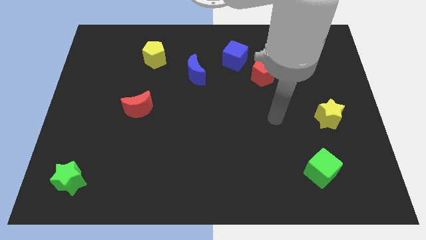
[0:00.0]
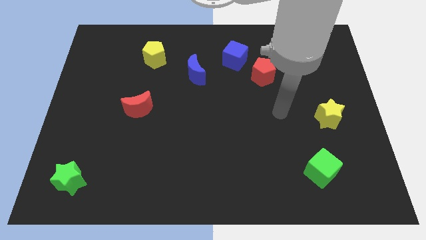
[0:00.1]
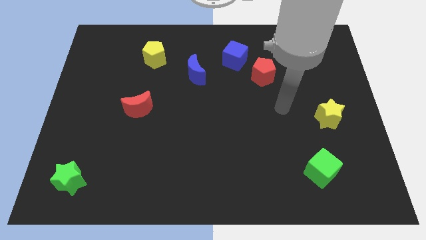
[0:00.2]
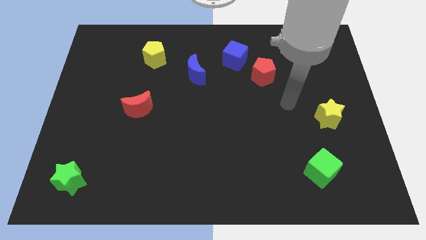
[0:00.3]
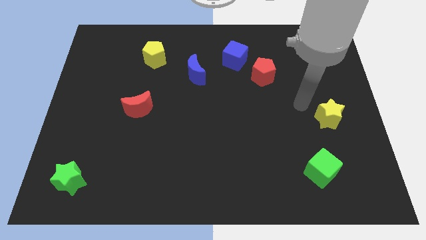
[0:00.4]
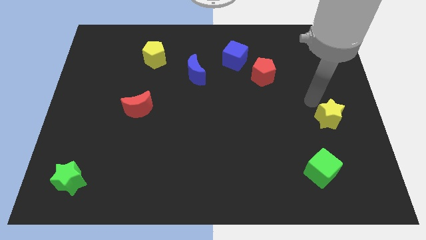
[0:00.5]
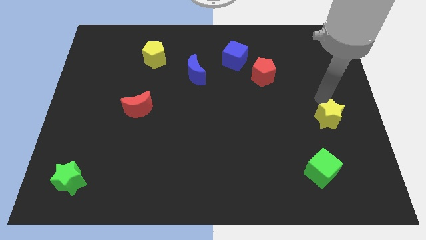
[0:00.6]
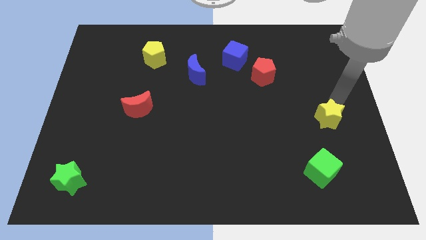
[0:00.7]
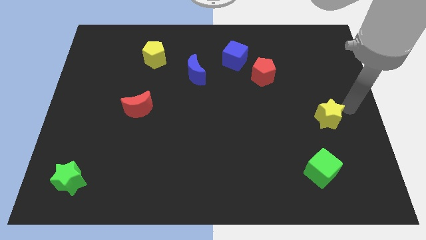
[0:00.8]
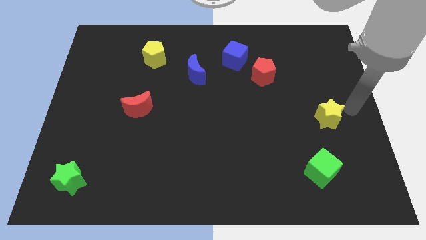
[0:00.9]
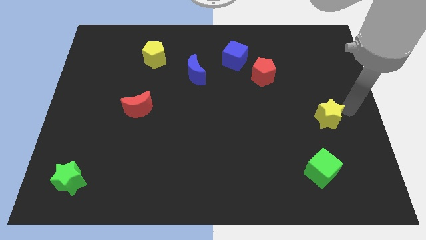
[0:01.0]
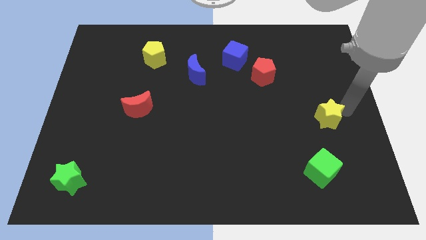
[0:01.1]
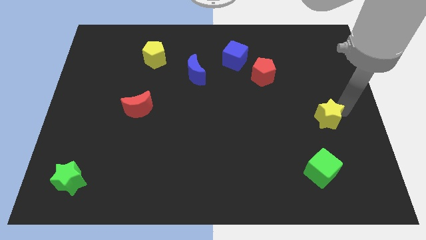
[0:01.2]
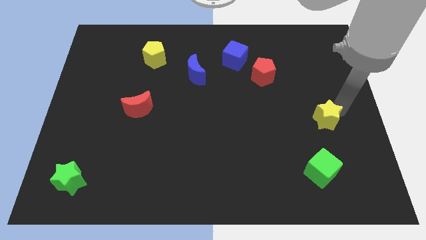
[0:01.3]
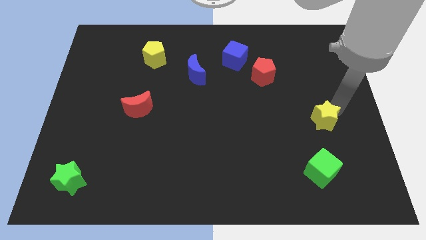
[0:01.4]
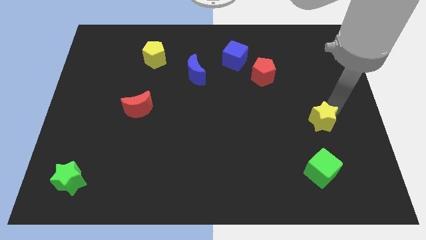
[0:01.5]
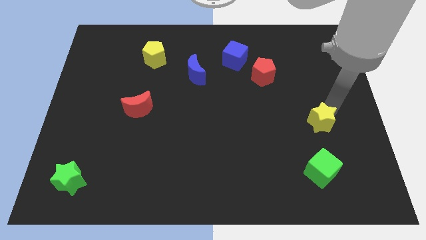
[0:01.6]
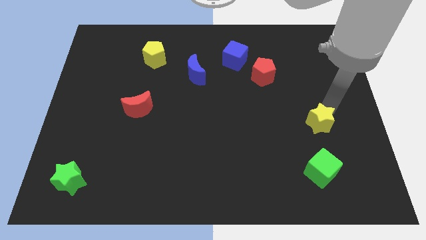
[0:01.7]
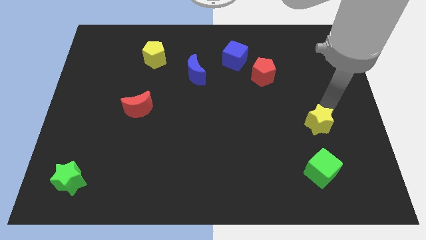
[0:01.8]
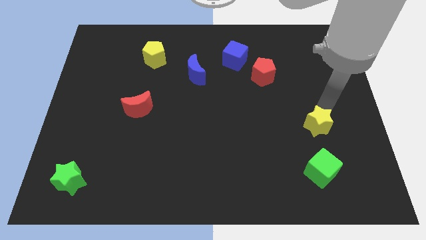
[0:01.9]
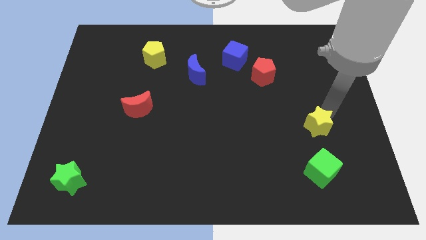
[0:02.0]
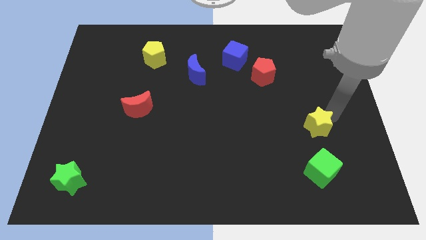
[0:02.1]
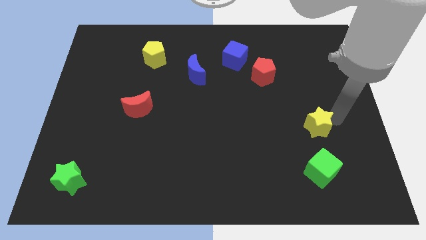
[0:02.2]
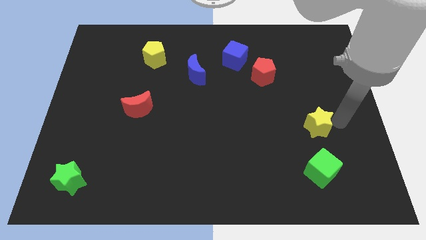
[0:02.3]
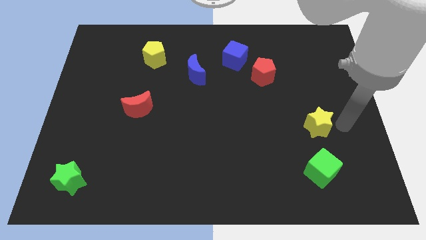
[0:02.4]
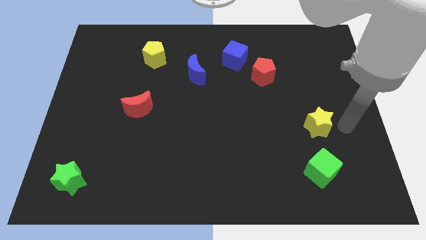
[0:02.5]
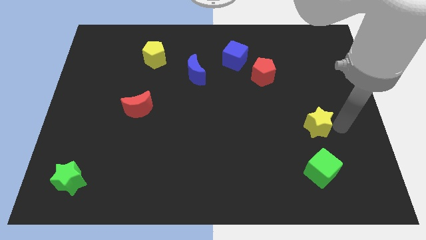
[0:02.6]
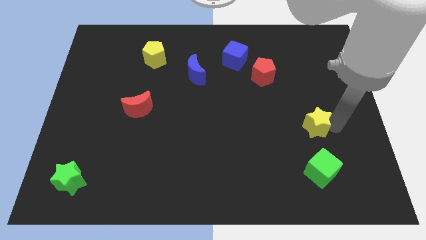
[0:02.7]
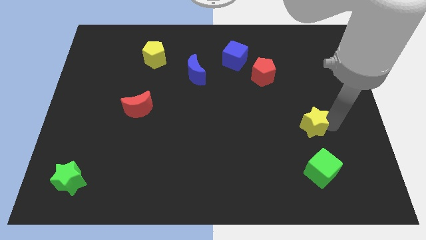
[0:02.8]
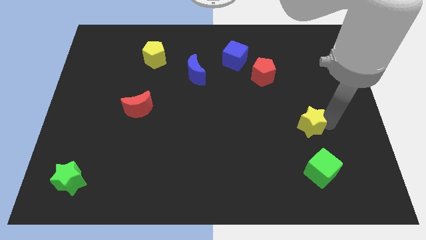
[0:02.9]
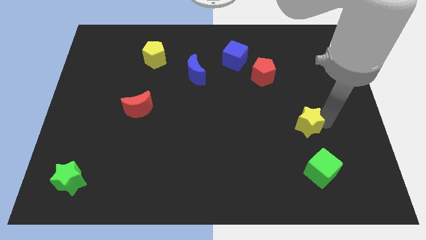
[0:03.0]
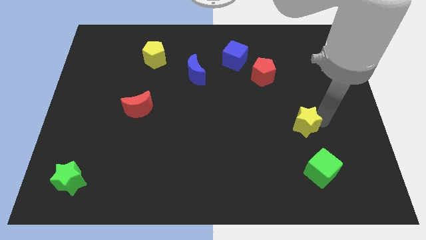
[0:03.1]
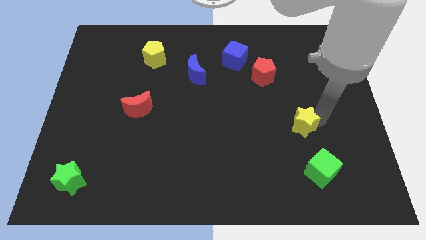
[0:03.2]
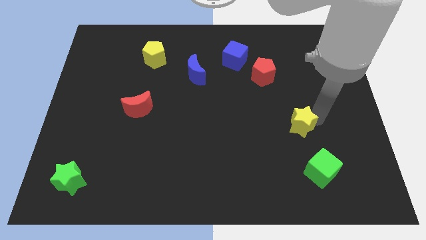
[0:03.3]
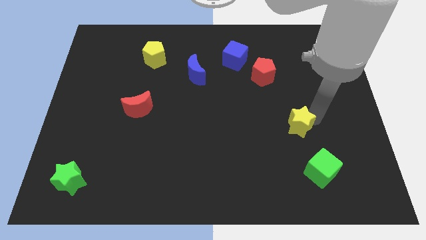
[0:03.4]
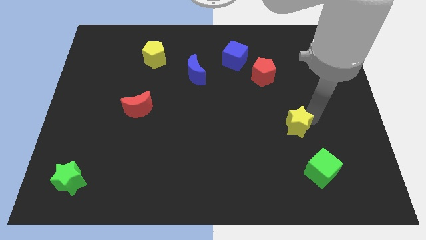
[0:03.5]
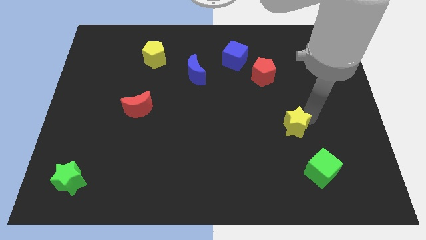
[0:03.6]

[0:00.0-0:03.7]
push the yellow star slightly downwards and then to the left

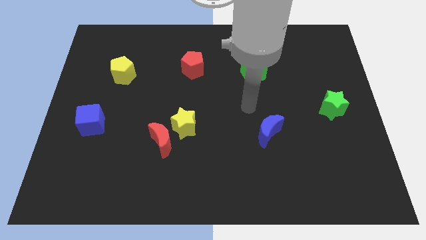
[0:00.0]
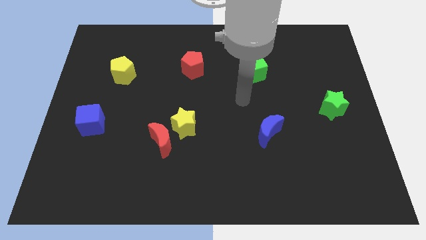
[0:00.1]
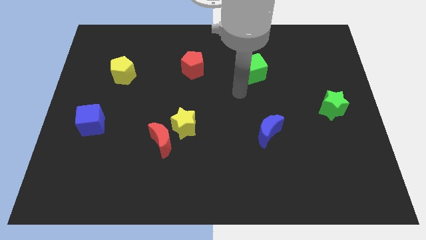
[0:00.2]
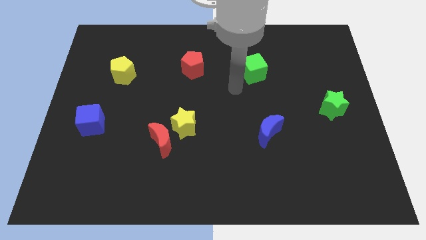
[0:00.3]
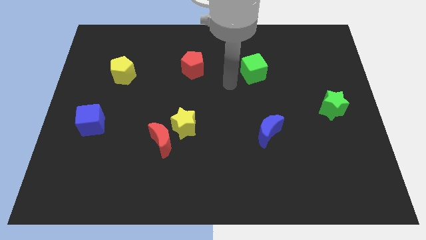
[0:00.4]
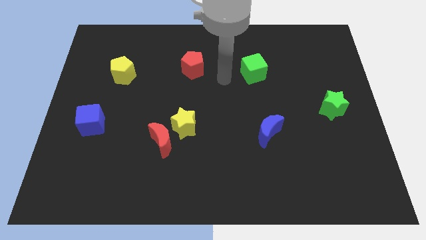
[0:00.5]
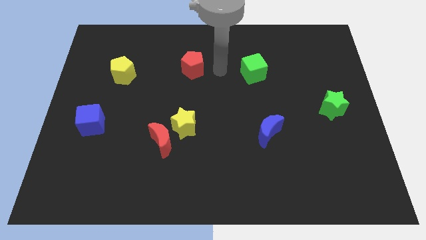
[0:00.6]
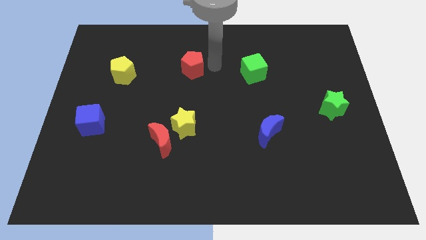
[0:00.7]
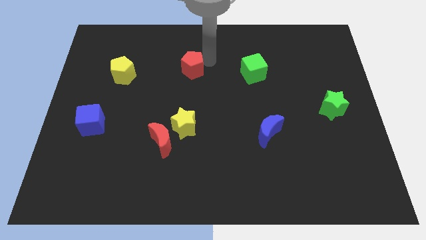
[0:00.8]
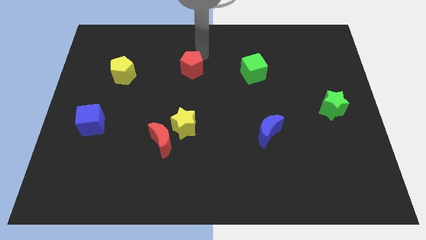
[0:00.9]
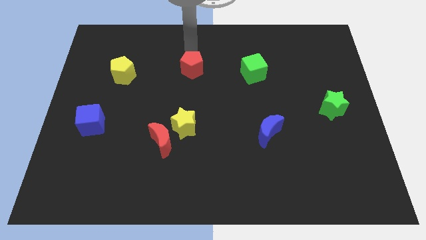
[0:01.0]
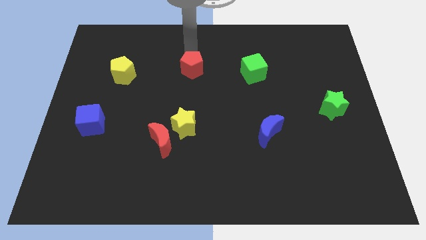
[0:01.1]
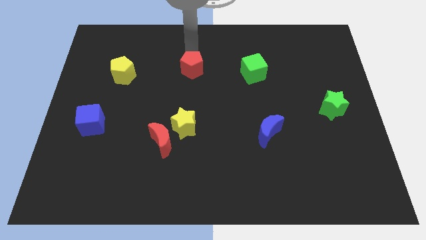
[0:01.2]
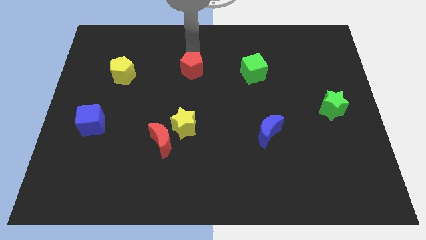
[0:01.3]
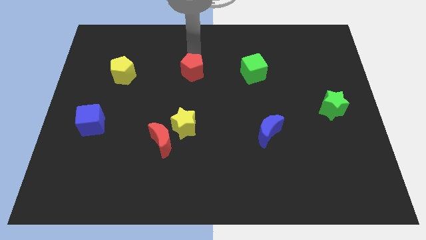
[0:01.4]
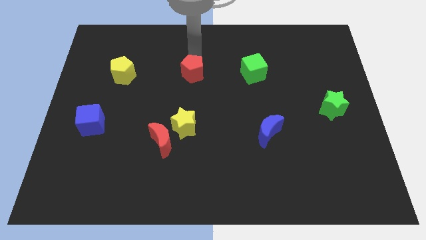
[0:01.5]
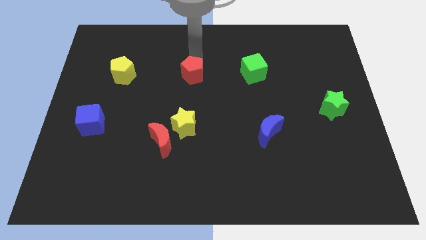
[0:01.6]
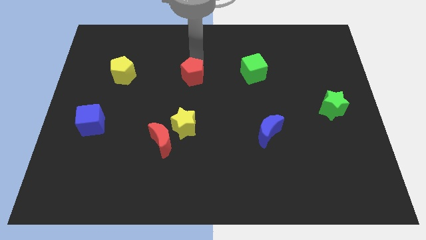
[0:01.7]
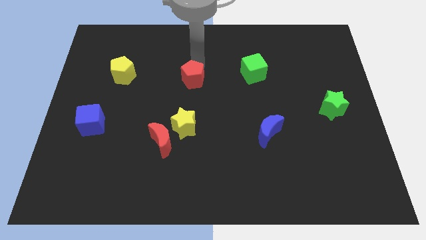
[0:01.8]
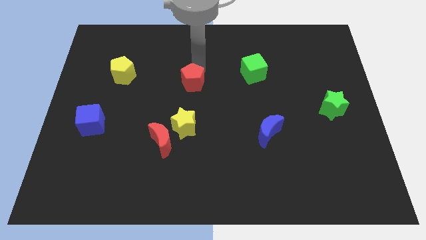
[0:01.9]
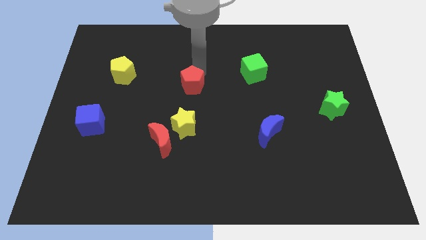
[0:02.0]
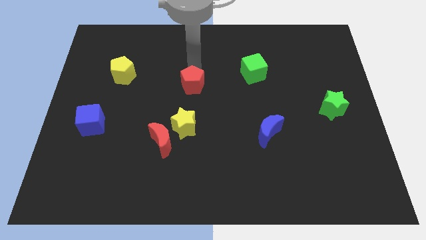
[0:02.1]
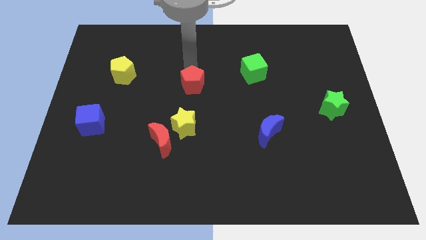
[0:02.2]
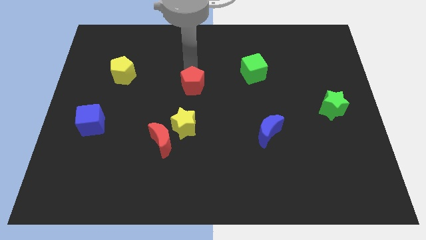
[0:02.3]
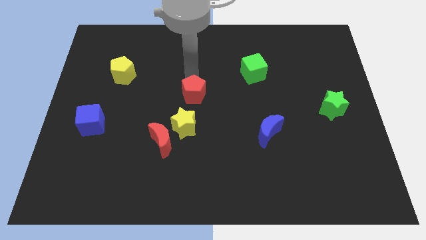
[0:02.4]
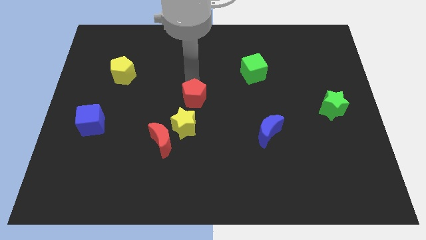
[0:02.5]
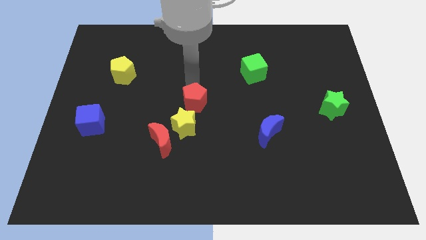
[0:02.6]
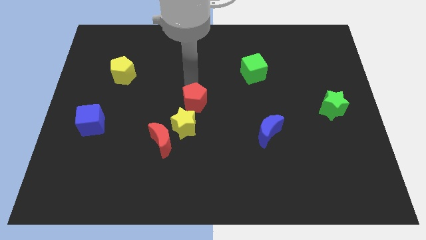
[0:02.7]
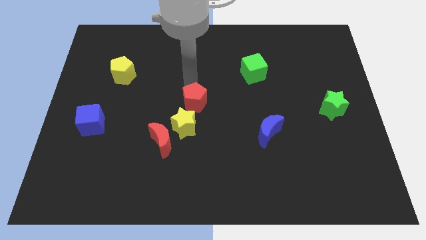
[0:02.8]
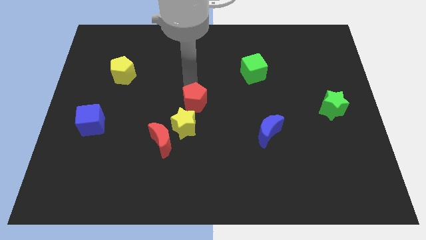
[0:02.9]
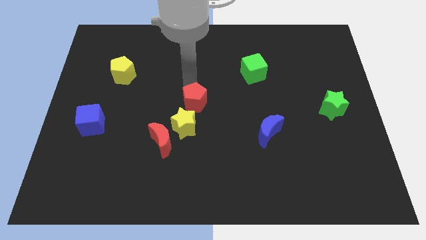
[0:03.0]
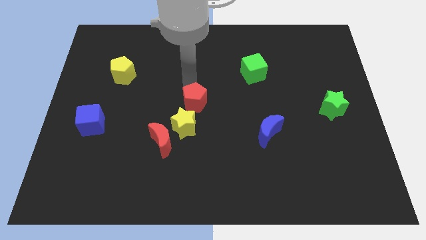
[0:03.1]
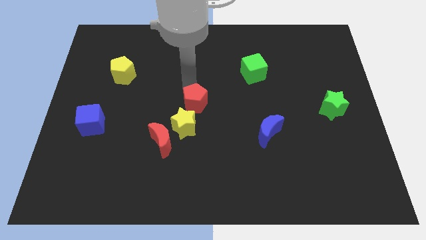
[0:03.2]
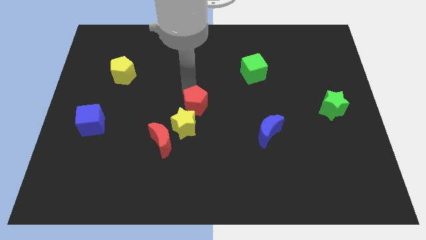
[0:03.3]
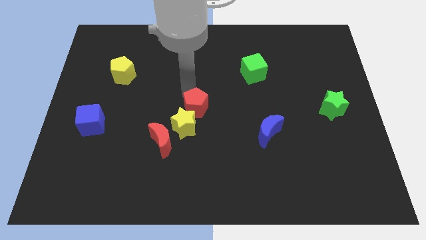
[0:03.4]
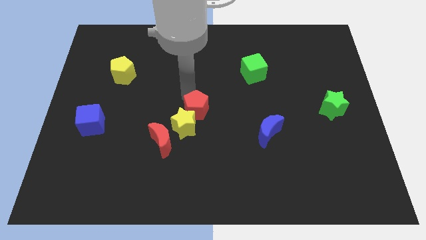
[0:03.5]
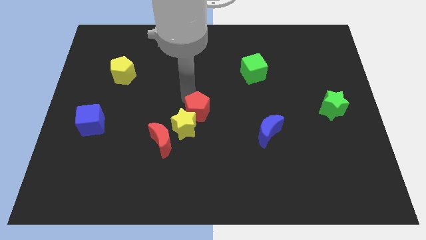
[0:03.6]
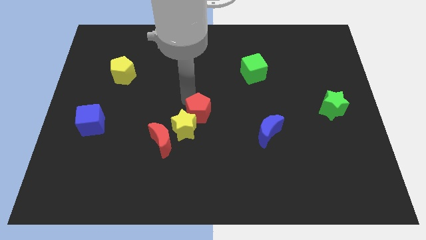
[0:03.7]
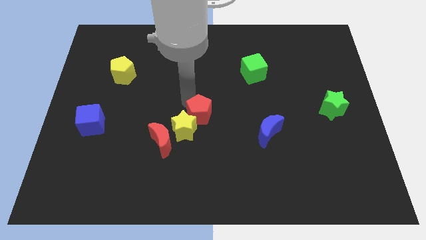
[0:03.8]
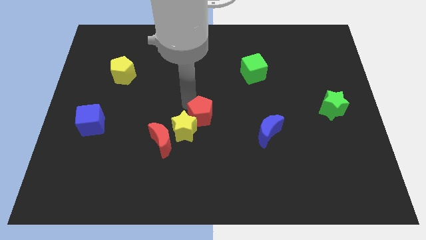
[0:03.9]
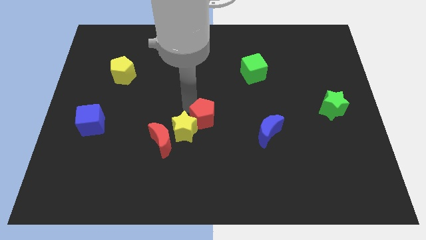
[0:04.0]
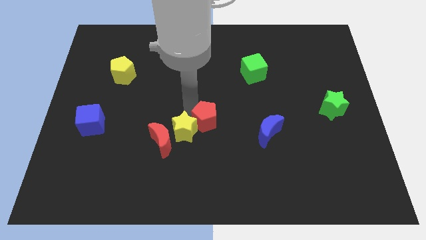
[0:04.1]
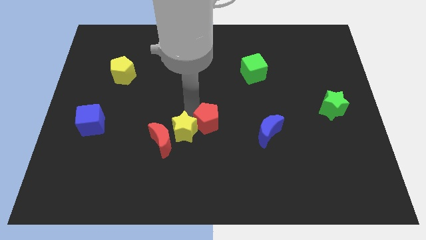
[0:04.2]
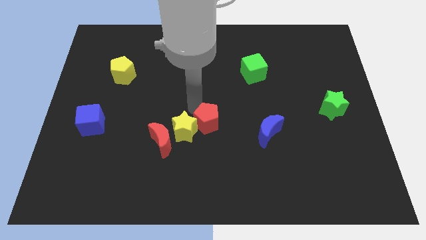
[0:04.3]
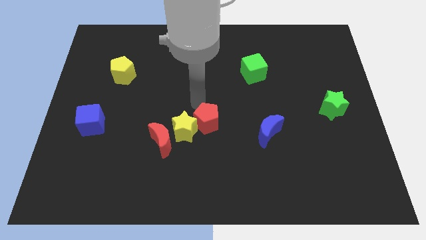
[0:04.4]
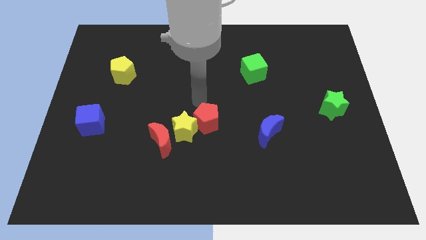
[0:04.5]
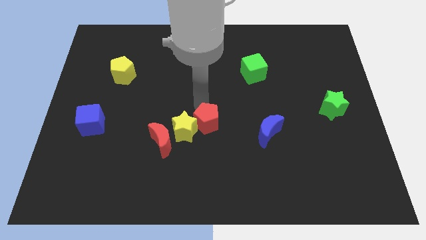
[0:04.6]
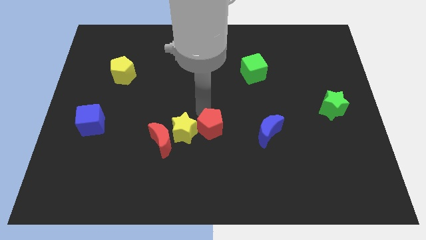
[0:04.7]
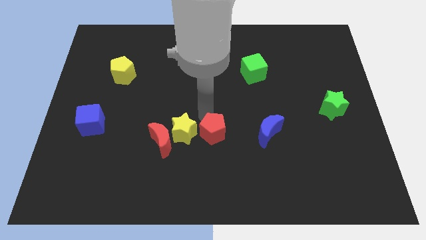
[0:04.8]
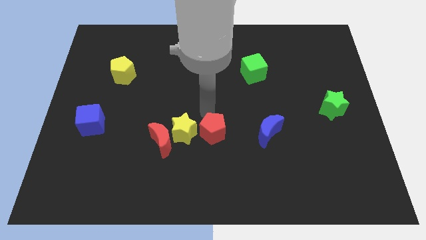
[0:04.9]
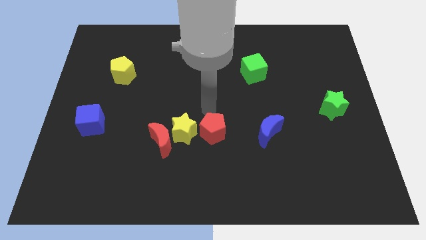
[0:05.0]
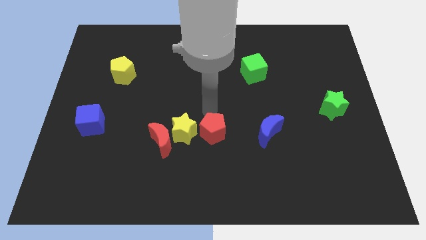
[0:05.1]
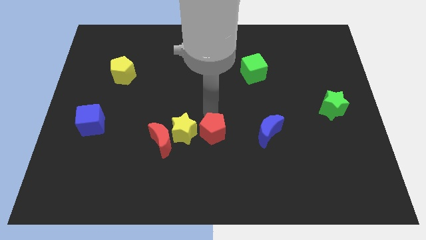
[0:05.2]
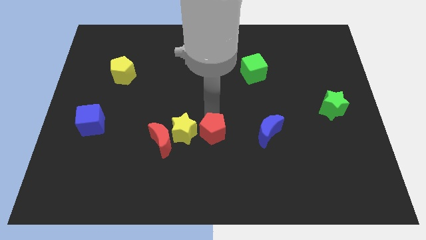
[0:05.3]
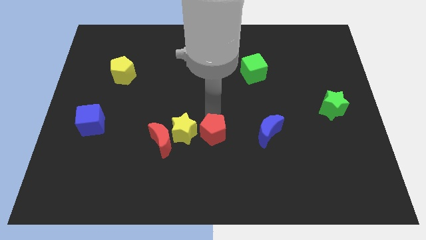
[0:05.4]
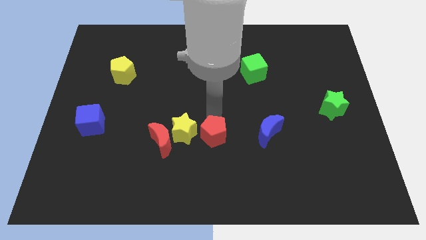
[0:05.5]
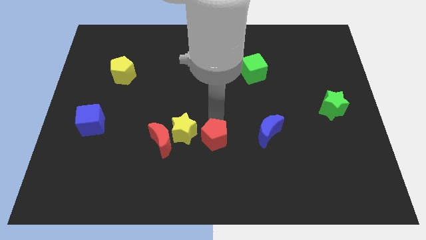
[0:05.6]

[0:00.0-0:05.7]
move the red pentagon downwards
